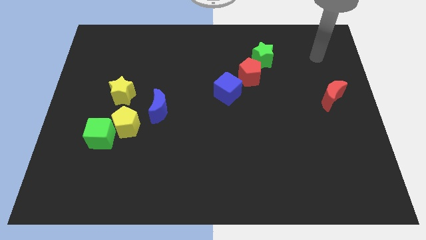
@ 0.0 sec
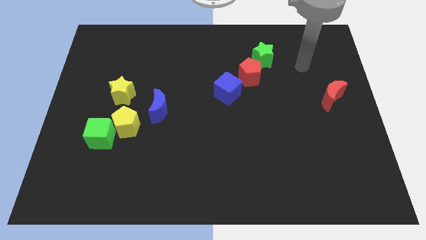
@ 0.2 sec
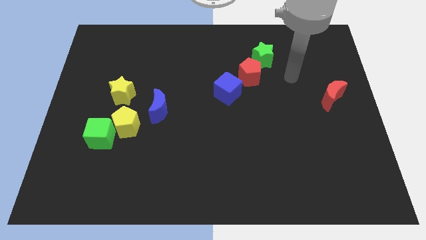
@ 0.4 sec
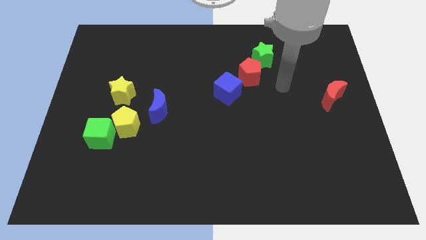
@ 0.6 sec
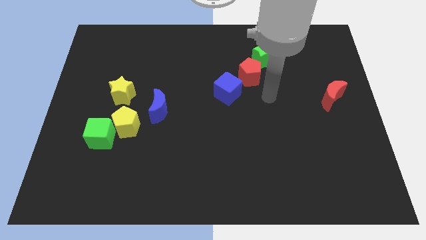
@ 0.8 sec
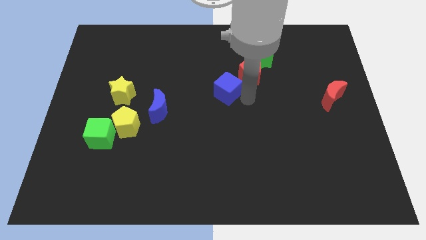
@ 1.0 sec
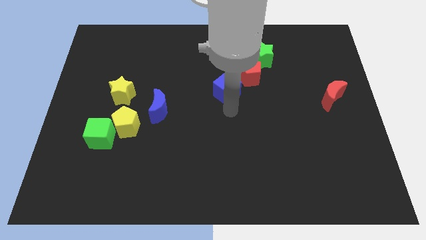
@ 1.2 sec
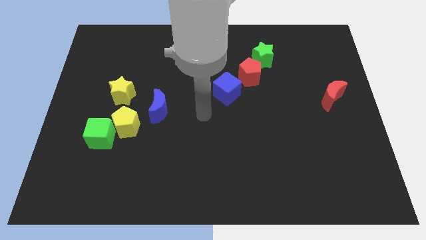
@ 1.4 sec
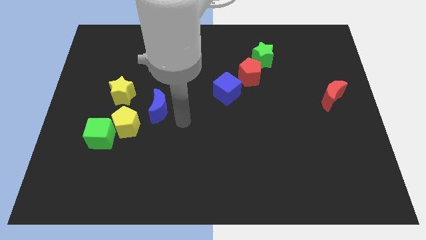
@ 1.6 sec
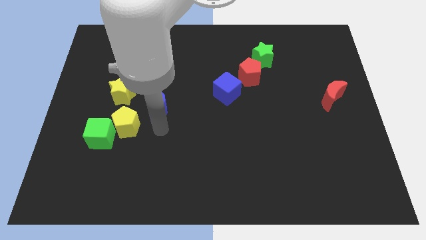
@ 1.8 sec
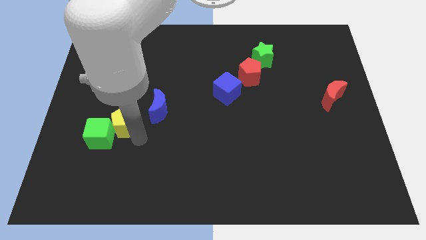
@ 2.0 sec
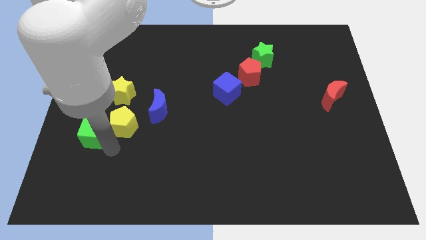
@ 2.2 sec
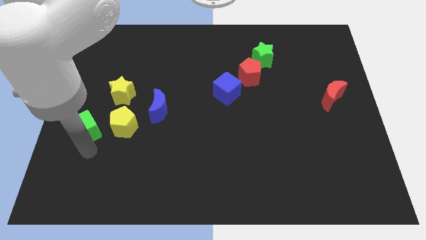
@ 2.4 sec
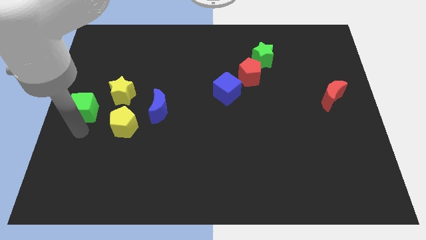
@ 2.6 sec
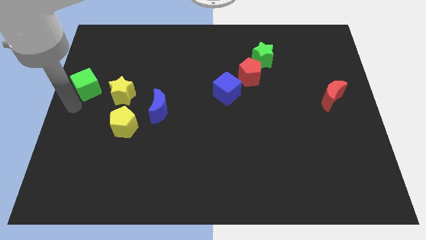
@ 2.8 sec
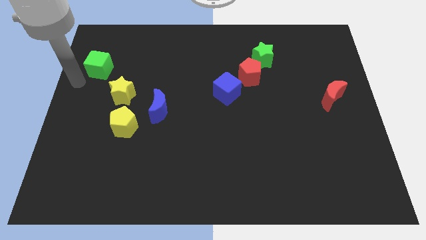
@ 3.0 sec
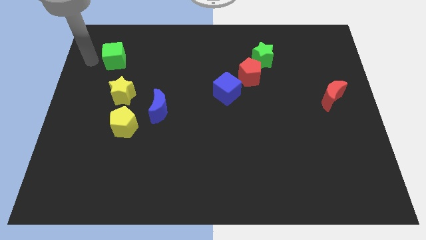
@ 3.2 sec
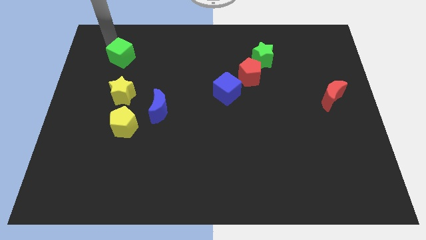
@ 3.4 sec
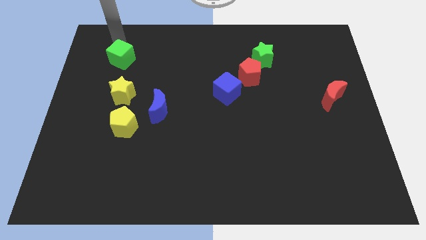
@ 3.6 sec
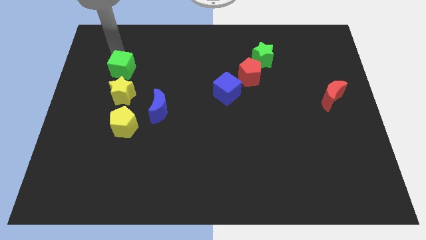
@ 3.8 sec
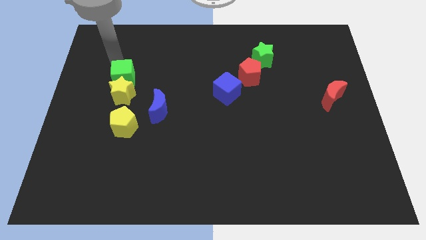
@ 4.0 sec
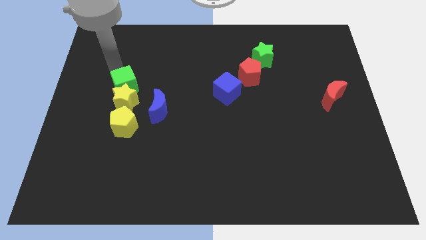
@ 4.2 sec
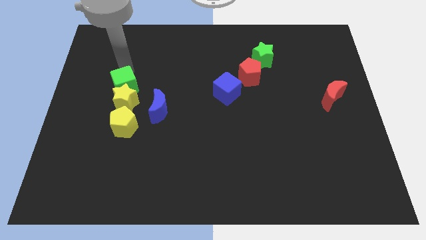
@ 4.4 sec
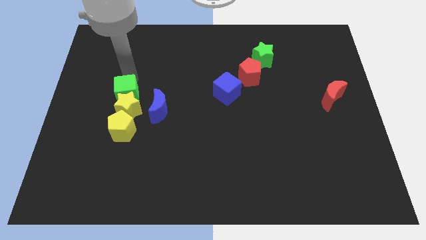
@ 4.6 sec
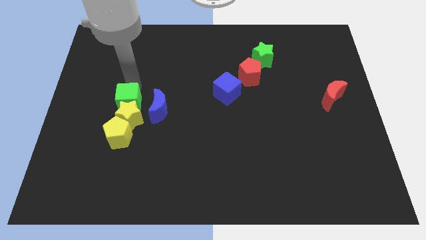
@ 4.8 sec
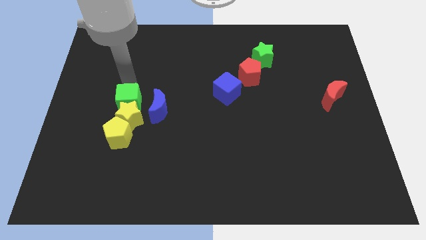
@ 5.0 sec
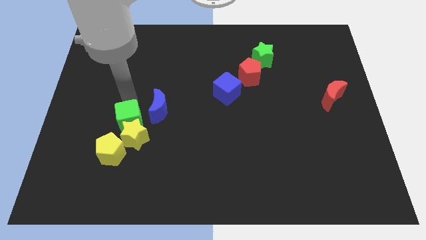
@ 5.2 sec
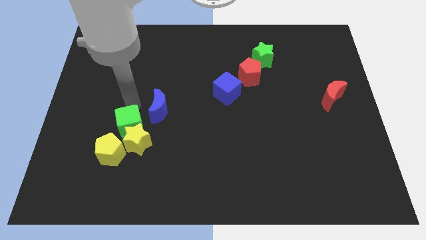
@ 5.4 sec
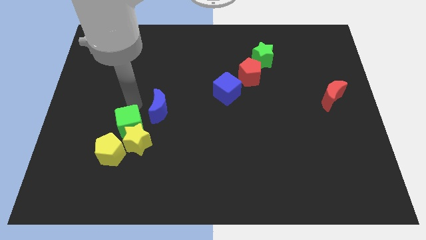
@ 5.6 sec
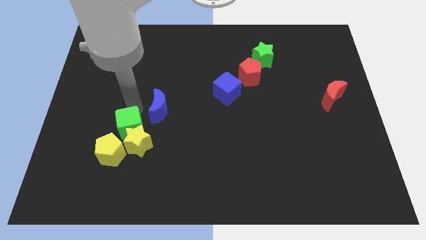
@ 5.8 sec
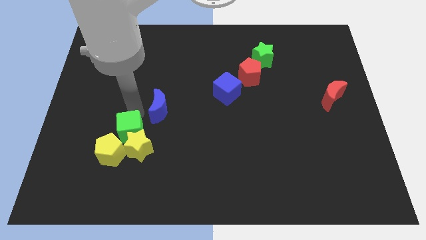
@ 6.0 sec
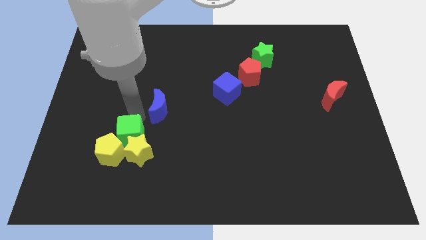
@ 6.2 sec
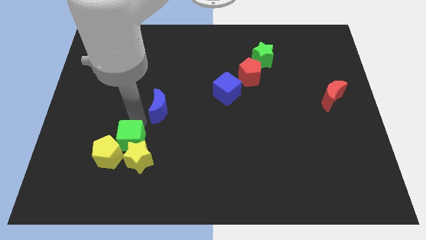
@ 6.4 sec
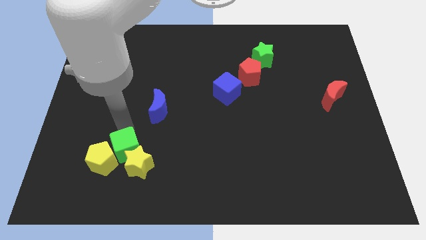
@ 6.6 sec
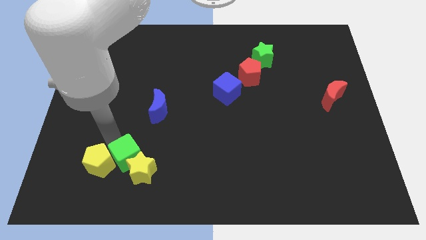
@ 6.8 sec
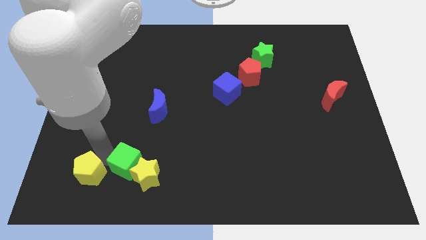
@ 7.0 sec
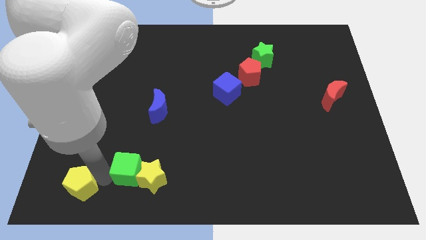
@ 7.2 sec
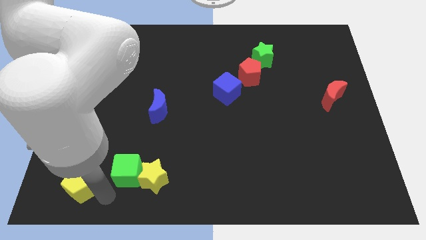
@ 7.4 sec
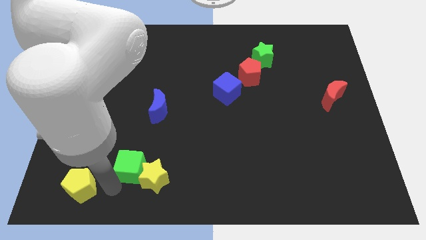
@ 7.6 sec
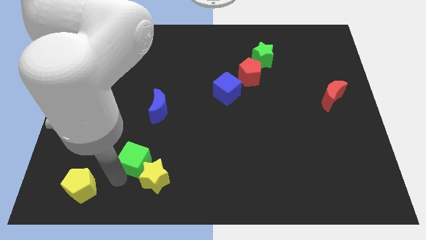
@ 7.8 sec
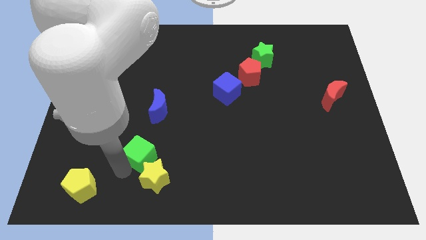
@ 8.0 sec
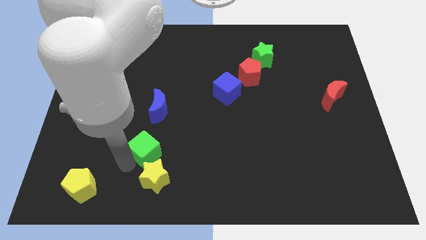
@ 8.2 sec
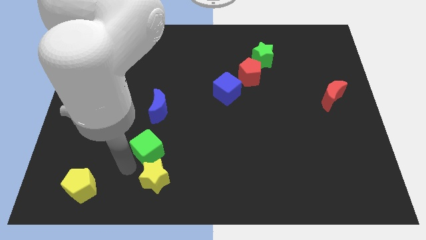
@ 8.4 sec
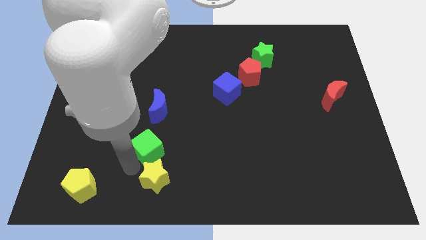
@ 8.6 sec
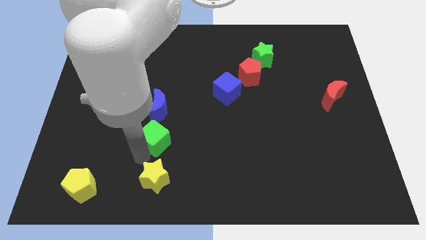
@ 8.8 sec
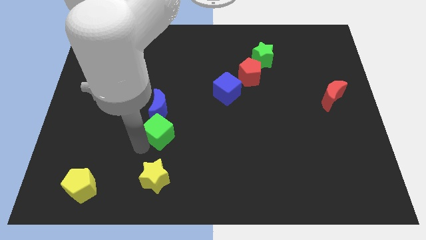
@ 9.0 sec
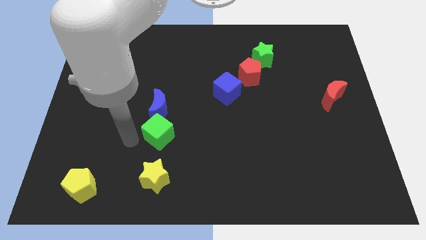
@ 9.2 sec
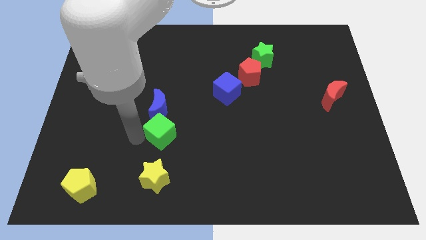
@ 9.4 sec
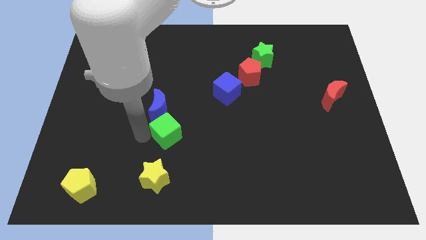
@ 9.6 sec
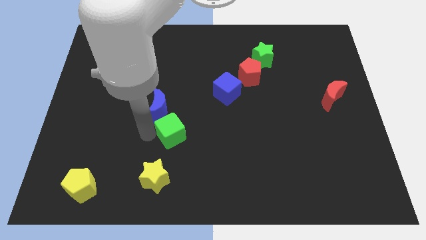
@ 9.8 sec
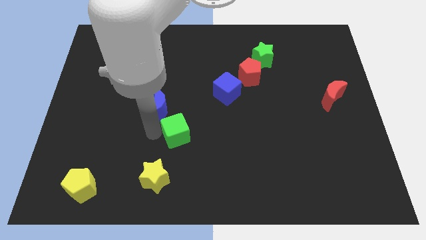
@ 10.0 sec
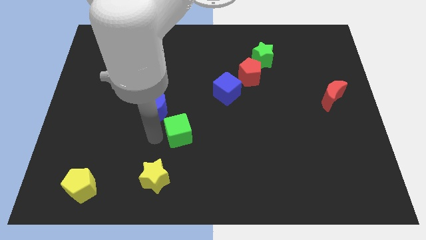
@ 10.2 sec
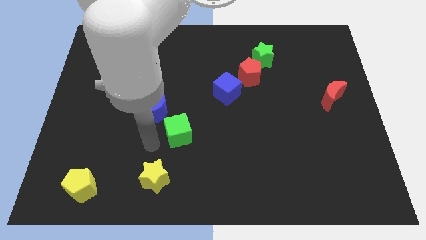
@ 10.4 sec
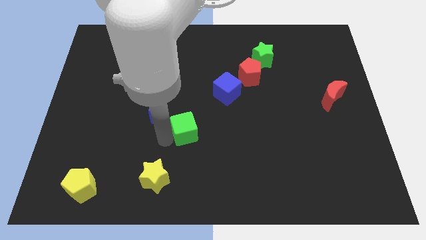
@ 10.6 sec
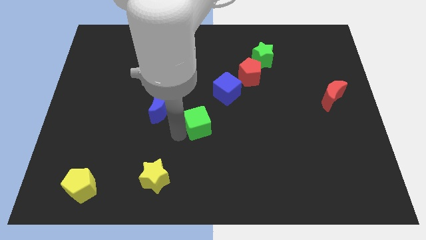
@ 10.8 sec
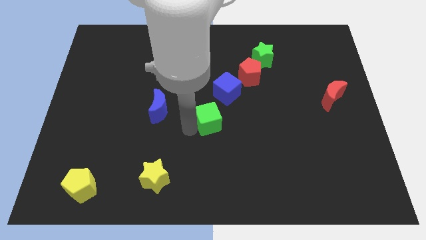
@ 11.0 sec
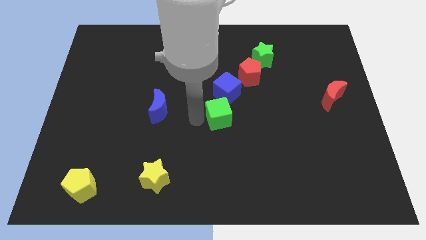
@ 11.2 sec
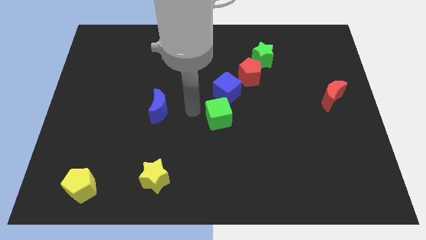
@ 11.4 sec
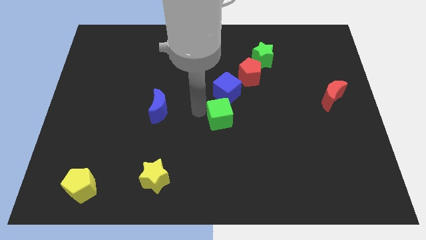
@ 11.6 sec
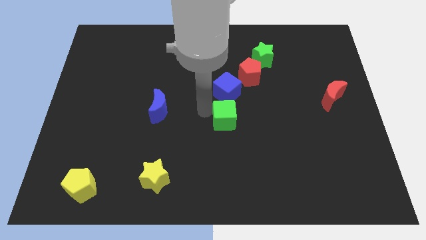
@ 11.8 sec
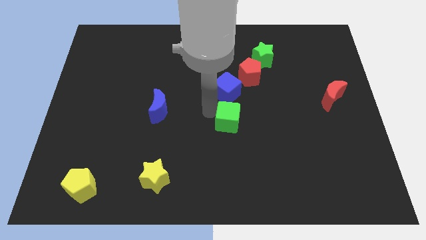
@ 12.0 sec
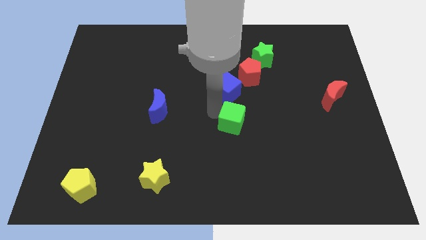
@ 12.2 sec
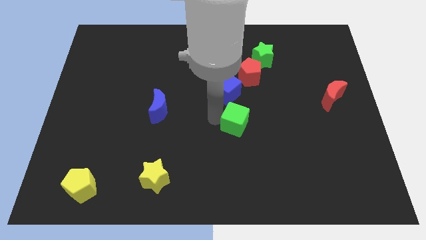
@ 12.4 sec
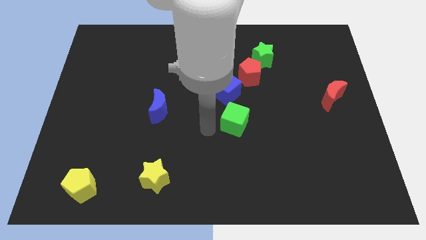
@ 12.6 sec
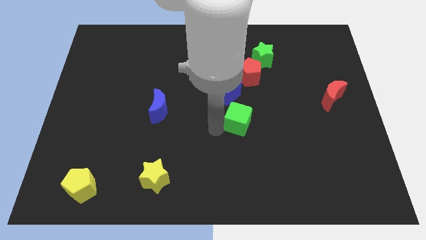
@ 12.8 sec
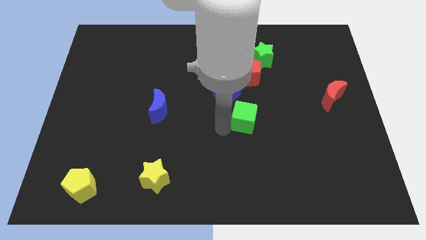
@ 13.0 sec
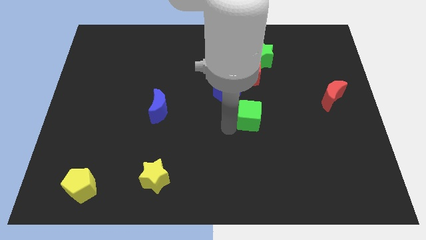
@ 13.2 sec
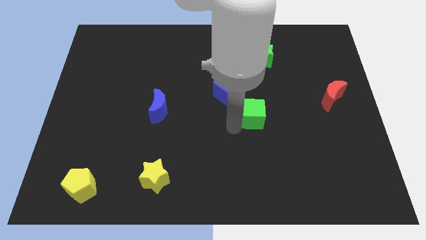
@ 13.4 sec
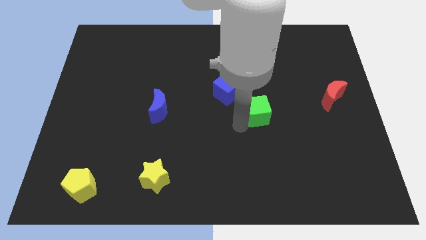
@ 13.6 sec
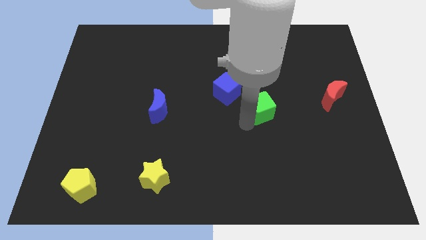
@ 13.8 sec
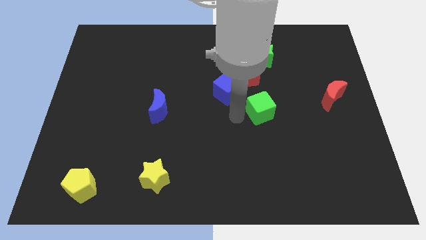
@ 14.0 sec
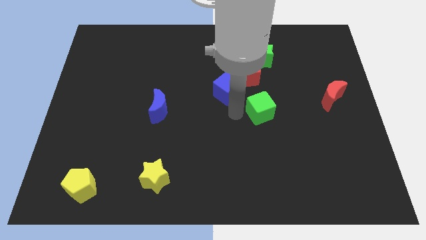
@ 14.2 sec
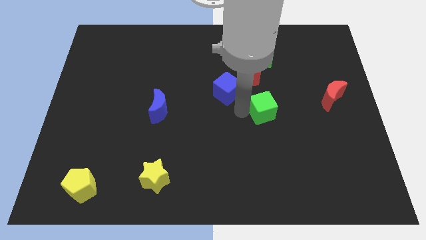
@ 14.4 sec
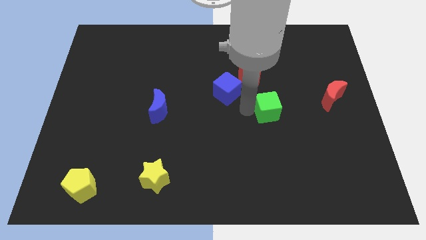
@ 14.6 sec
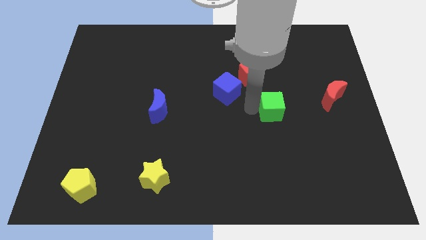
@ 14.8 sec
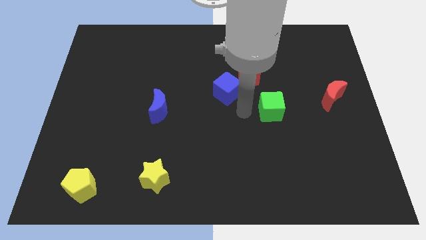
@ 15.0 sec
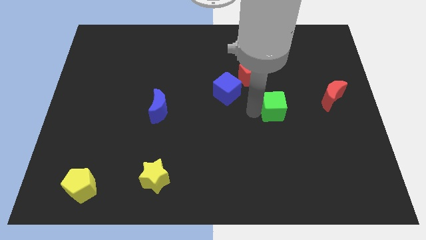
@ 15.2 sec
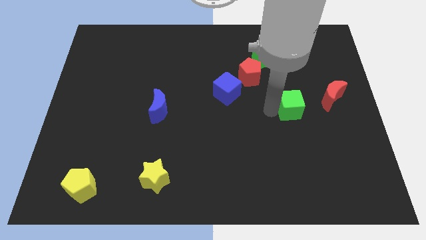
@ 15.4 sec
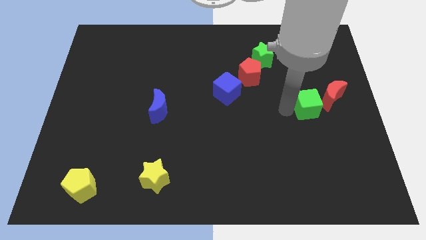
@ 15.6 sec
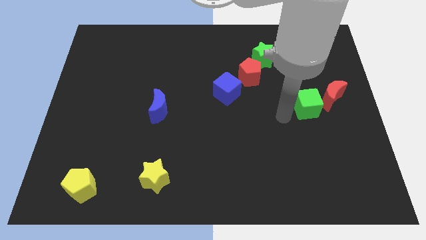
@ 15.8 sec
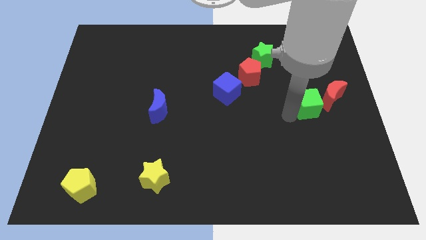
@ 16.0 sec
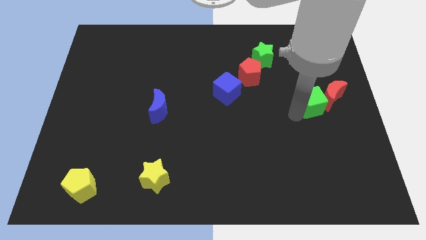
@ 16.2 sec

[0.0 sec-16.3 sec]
slide the green cube towards the red moon

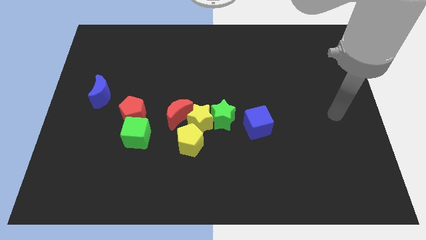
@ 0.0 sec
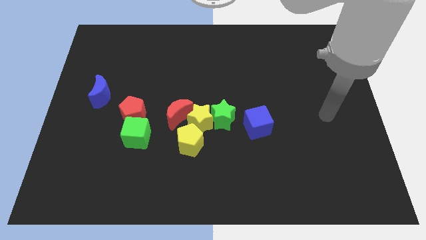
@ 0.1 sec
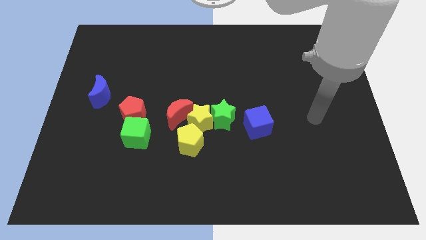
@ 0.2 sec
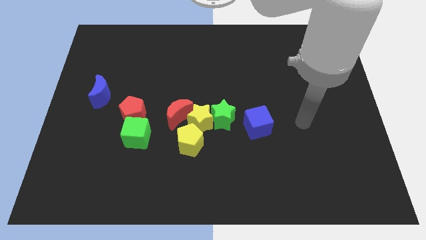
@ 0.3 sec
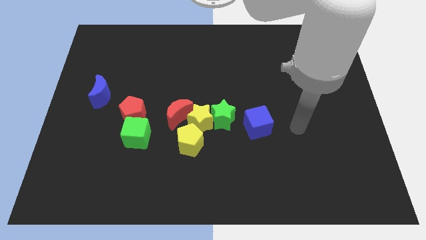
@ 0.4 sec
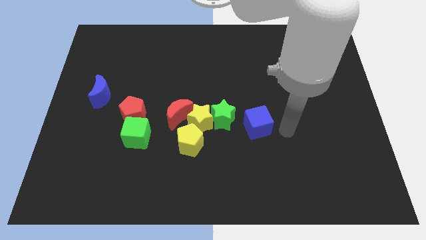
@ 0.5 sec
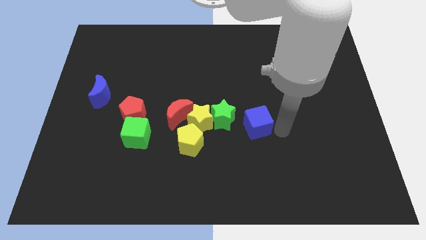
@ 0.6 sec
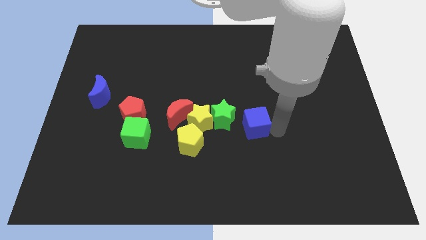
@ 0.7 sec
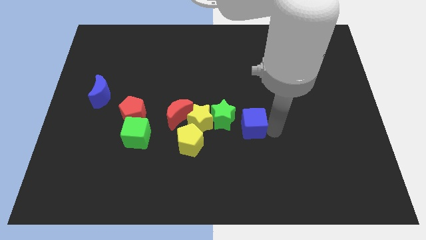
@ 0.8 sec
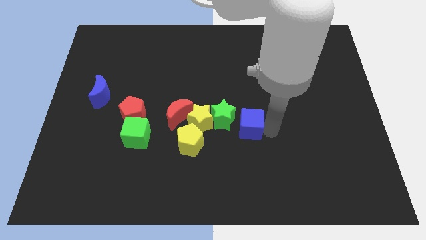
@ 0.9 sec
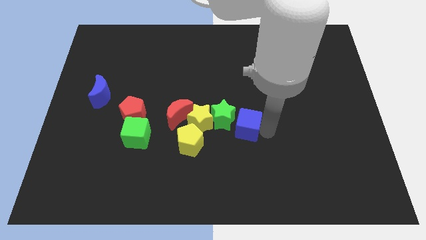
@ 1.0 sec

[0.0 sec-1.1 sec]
slide the blue cube towards the green star
